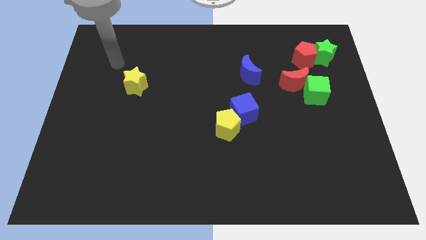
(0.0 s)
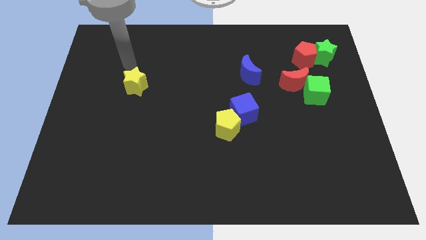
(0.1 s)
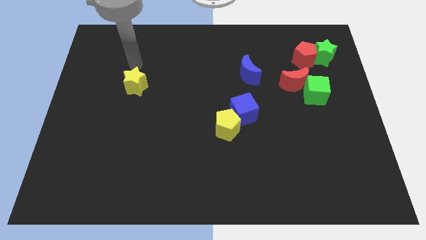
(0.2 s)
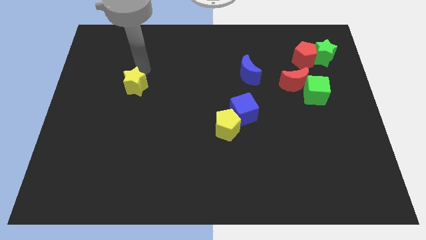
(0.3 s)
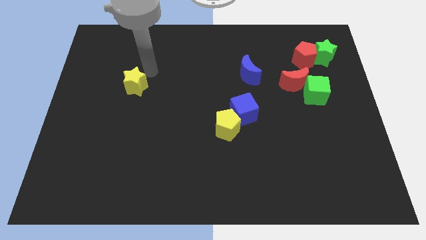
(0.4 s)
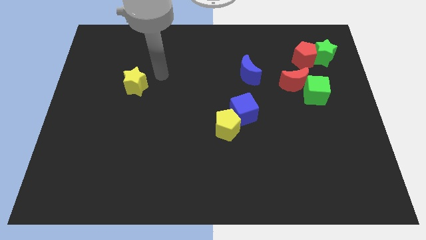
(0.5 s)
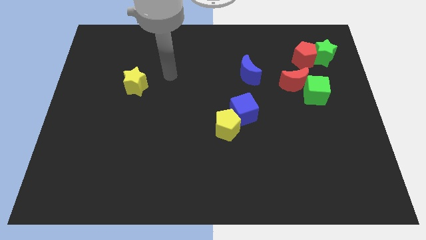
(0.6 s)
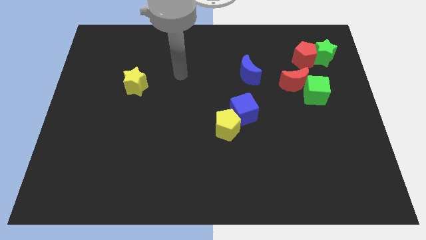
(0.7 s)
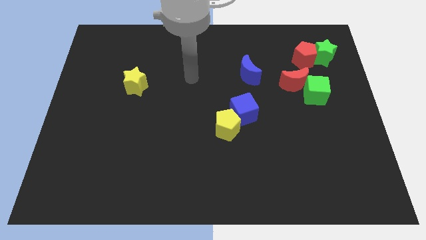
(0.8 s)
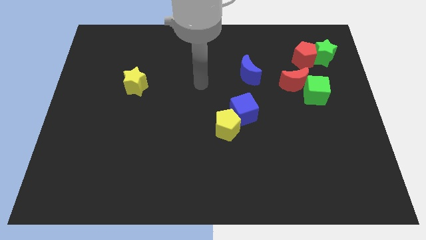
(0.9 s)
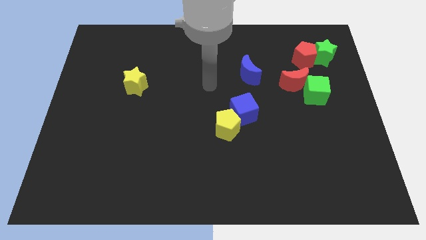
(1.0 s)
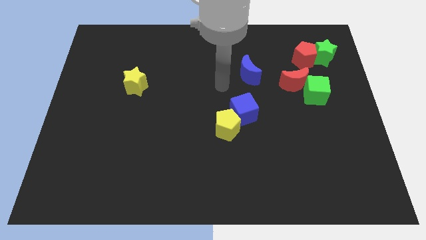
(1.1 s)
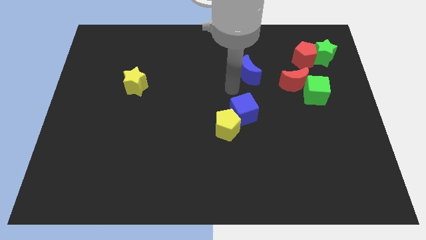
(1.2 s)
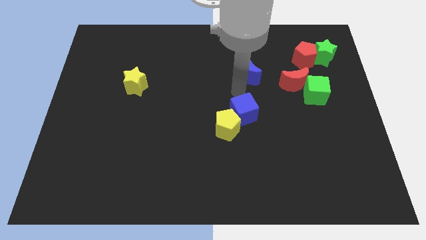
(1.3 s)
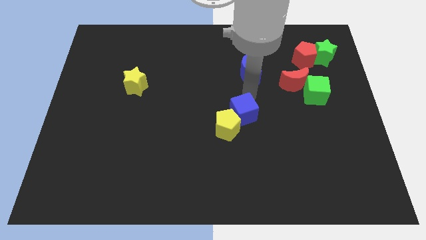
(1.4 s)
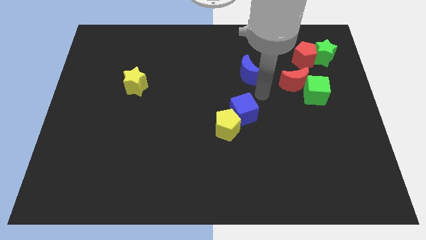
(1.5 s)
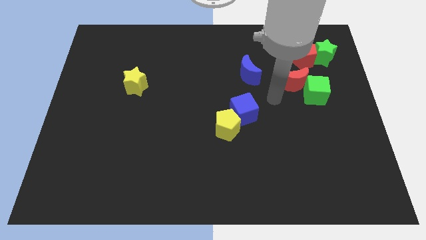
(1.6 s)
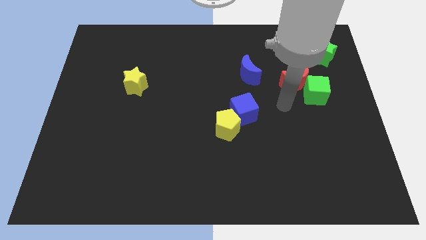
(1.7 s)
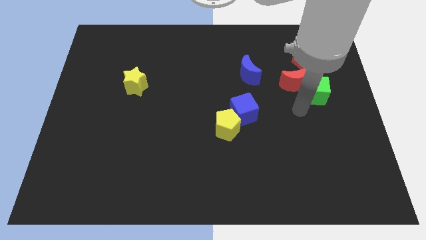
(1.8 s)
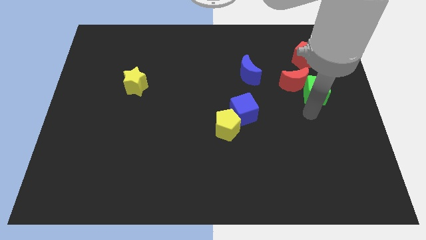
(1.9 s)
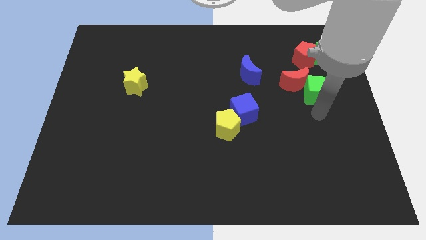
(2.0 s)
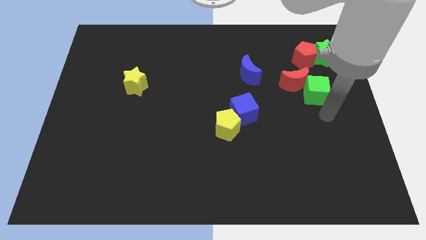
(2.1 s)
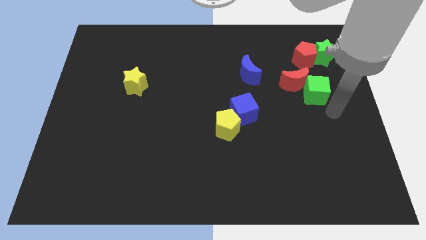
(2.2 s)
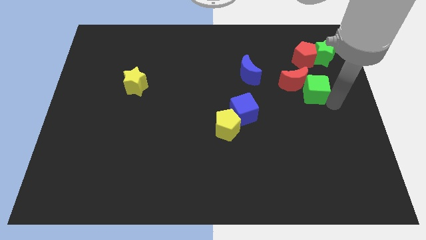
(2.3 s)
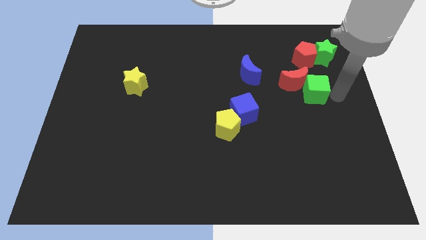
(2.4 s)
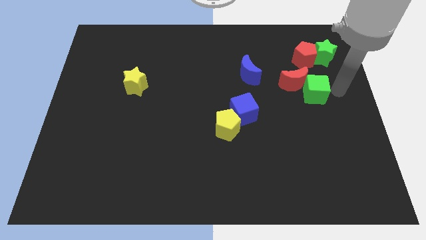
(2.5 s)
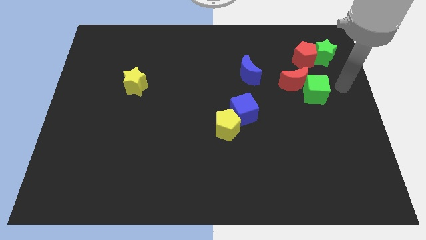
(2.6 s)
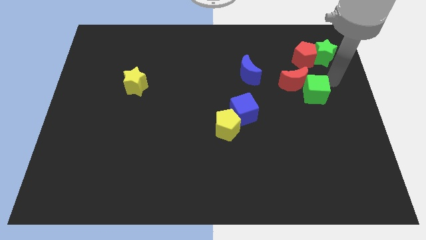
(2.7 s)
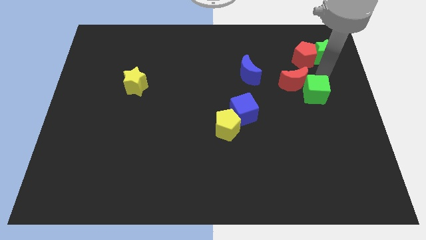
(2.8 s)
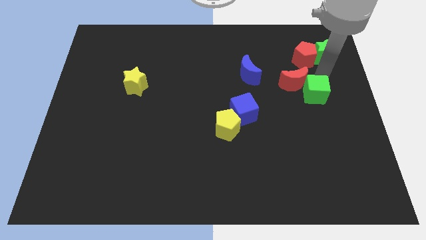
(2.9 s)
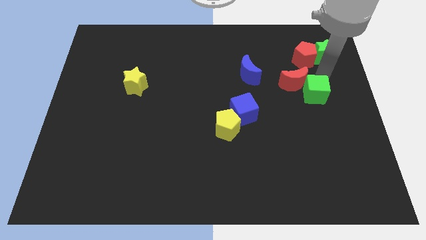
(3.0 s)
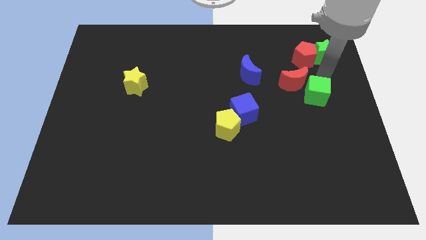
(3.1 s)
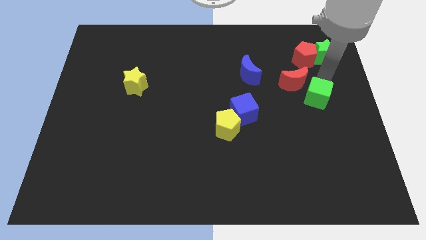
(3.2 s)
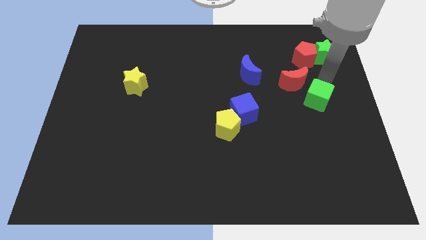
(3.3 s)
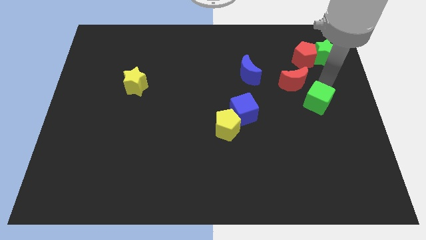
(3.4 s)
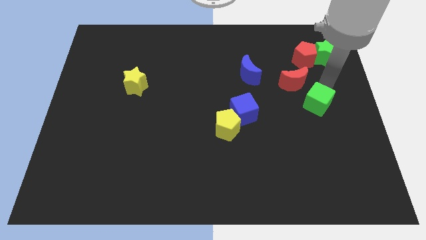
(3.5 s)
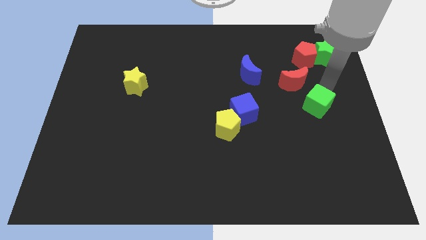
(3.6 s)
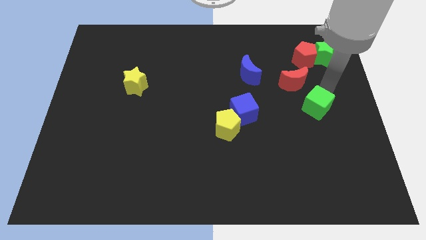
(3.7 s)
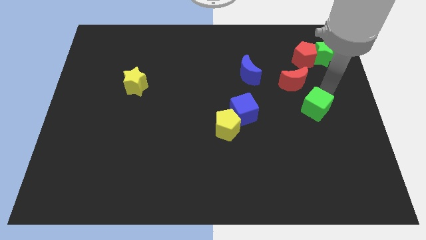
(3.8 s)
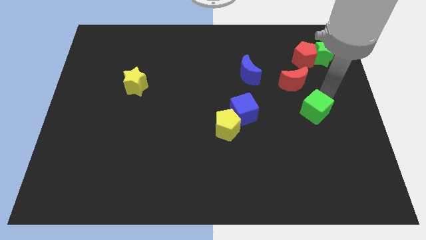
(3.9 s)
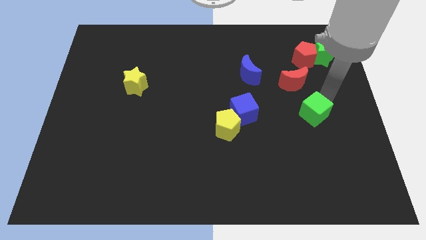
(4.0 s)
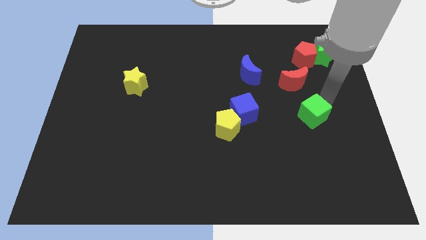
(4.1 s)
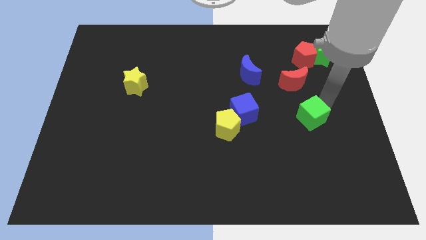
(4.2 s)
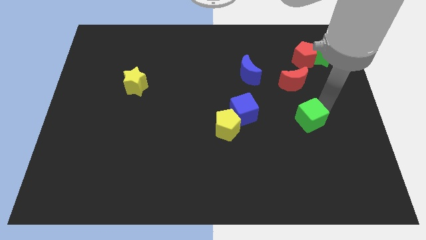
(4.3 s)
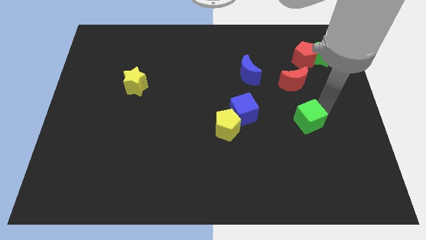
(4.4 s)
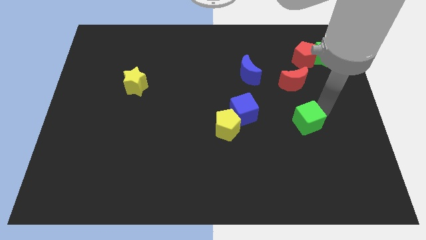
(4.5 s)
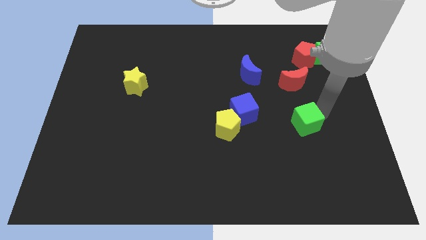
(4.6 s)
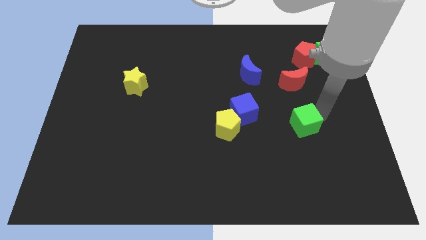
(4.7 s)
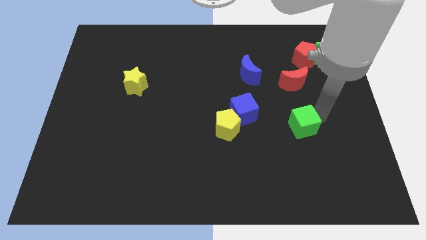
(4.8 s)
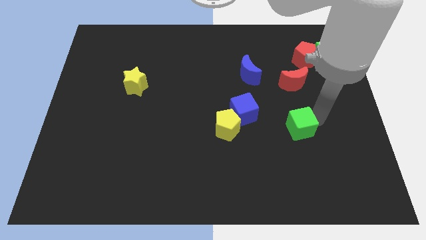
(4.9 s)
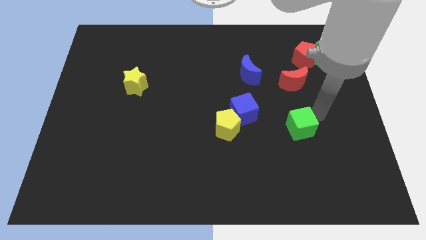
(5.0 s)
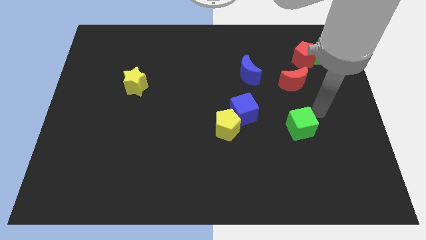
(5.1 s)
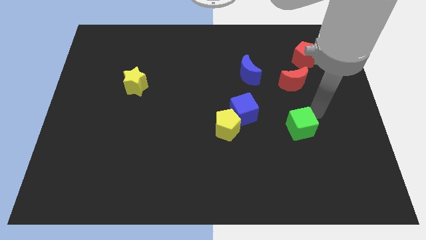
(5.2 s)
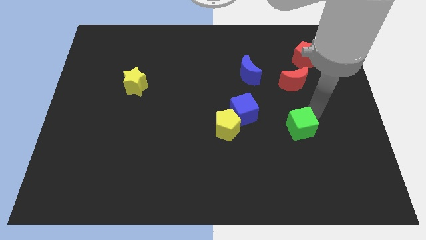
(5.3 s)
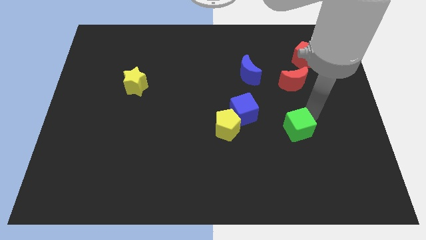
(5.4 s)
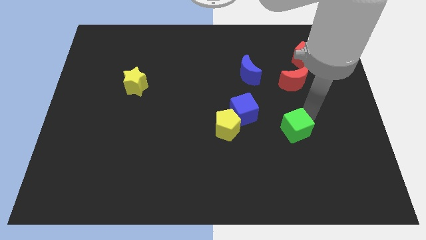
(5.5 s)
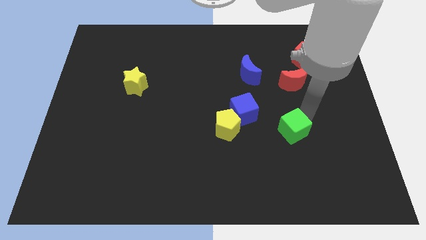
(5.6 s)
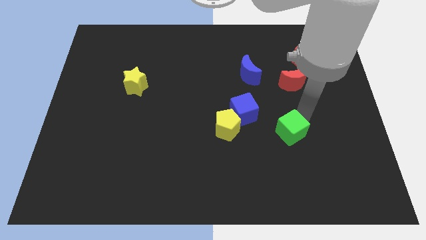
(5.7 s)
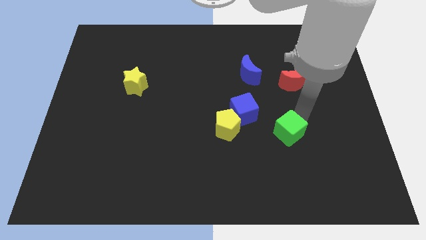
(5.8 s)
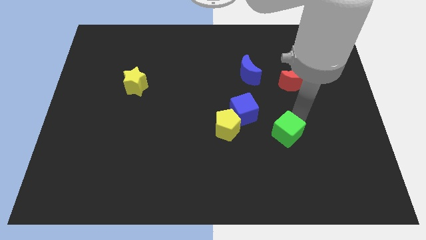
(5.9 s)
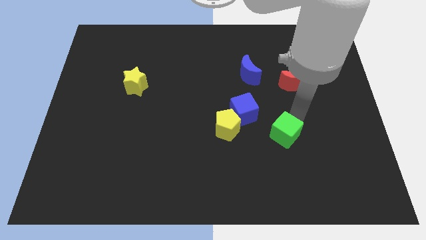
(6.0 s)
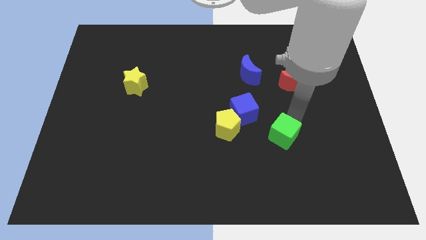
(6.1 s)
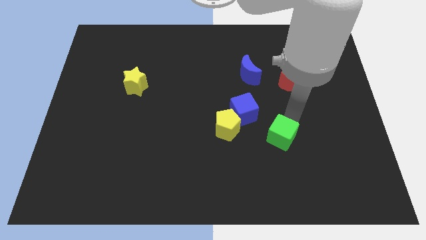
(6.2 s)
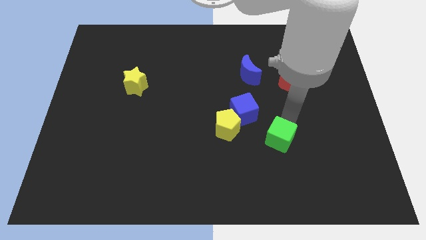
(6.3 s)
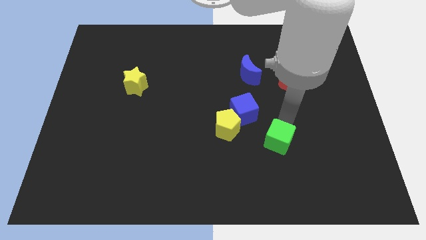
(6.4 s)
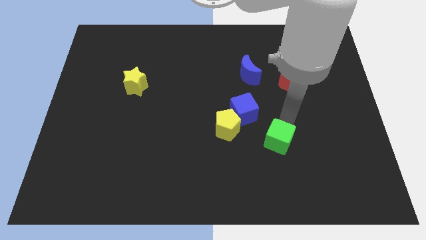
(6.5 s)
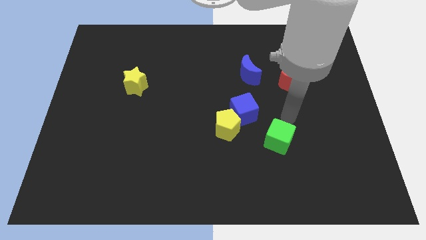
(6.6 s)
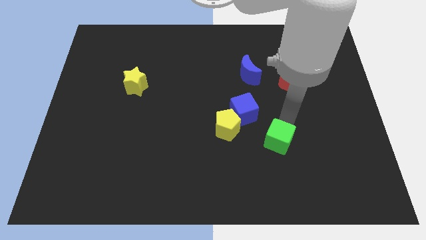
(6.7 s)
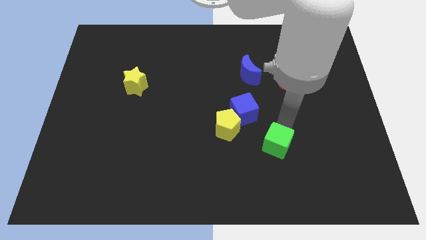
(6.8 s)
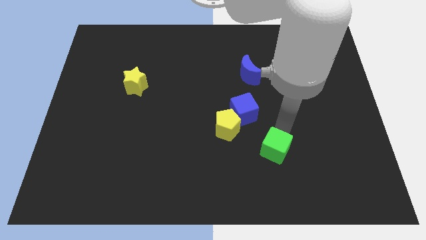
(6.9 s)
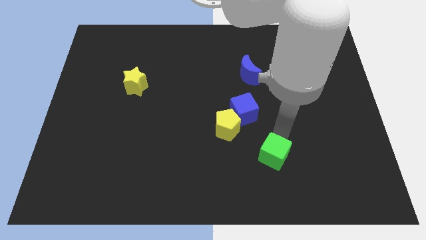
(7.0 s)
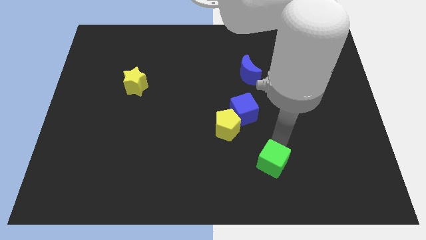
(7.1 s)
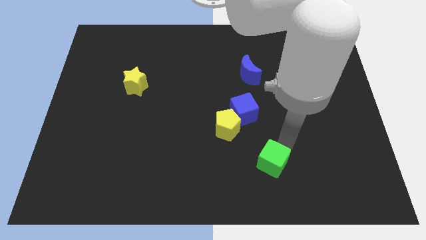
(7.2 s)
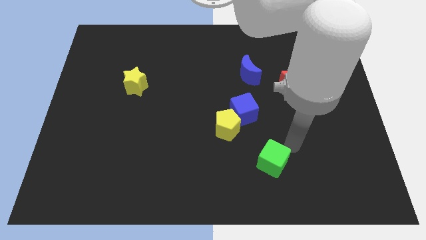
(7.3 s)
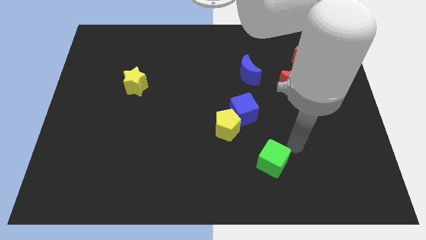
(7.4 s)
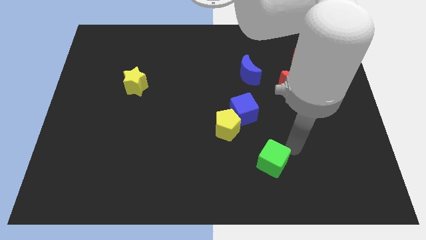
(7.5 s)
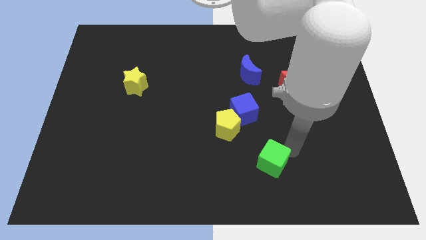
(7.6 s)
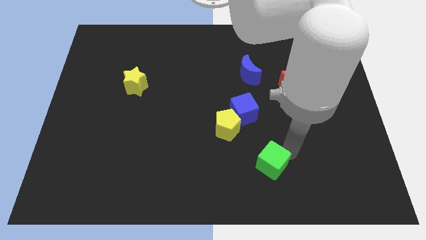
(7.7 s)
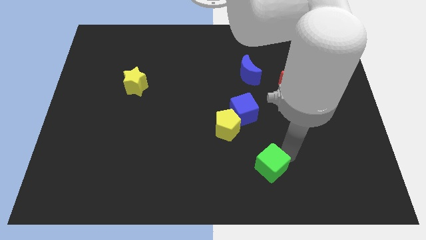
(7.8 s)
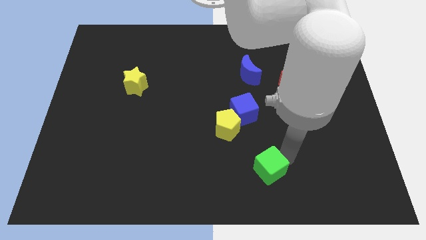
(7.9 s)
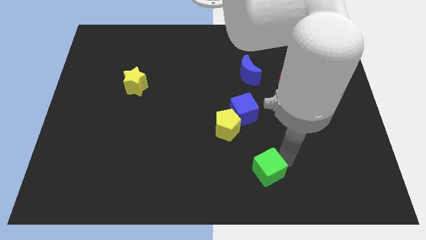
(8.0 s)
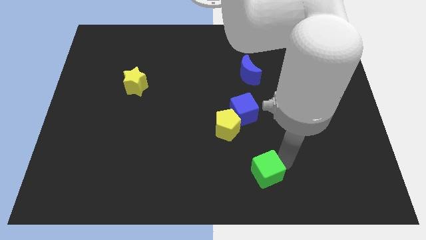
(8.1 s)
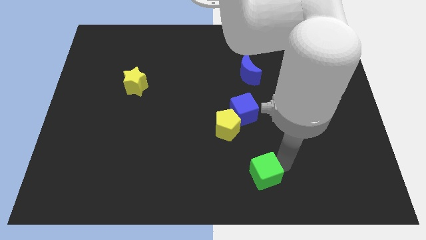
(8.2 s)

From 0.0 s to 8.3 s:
put the green cube to the bottom
